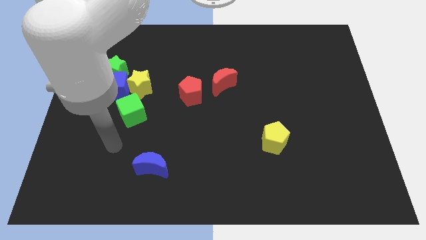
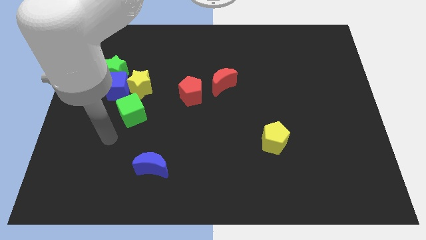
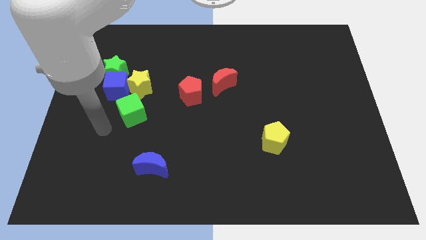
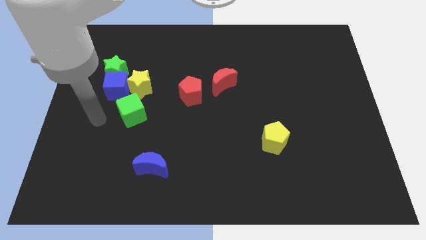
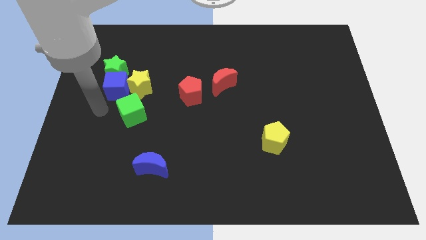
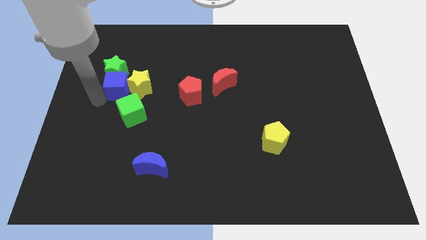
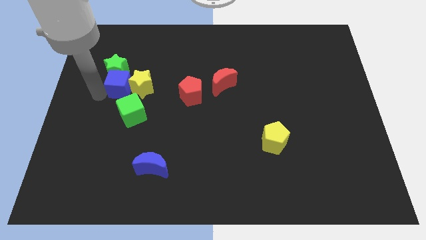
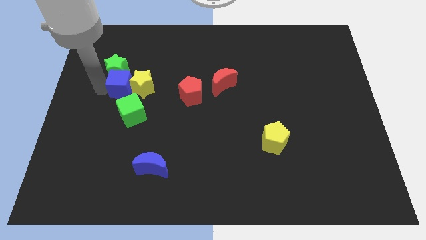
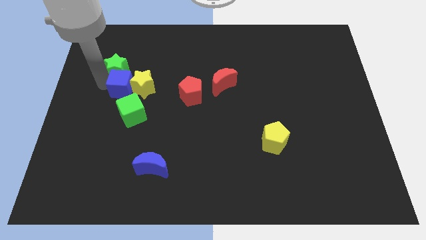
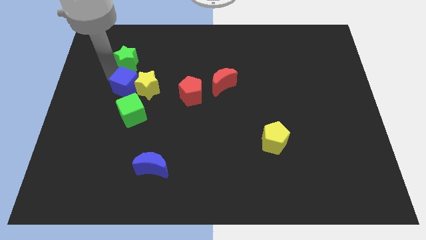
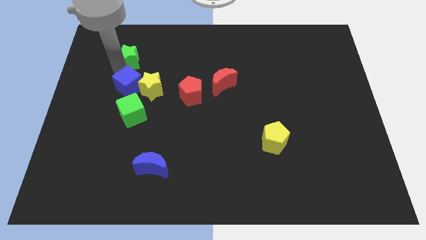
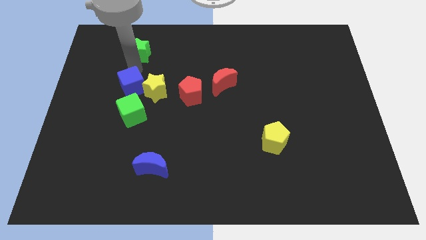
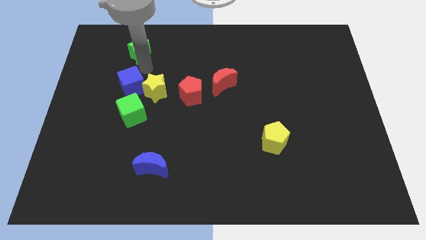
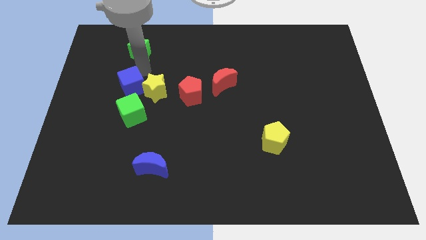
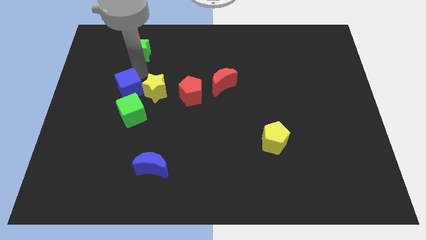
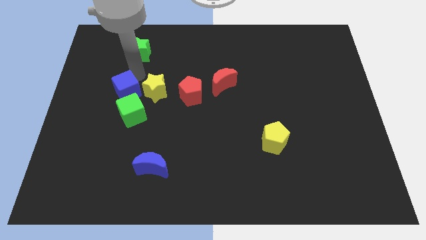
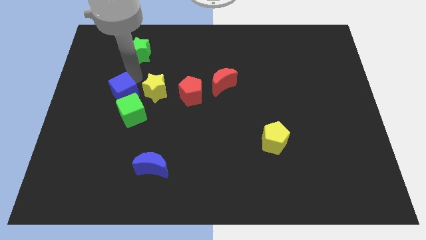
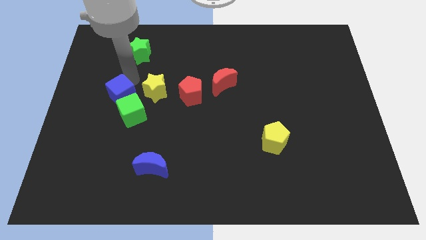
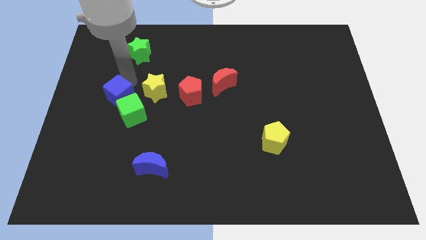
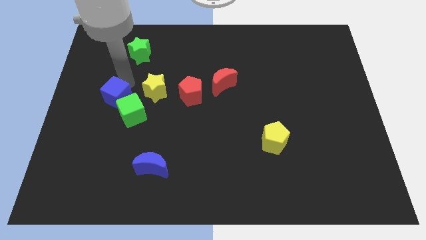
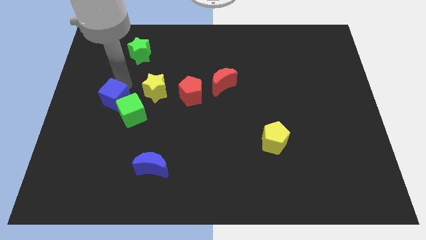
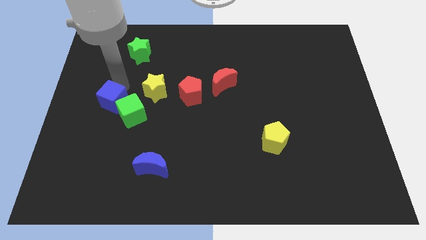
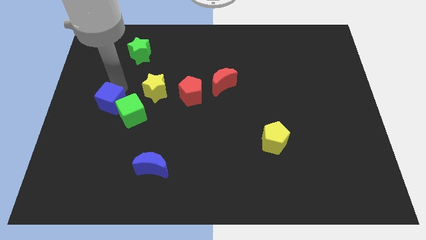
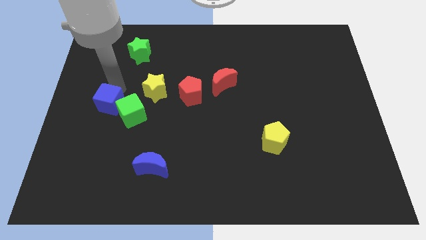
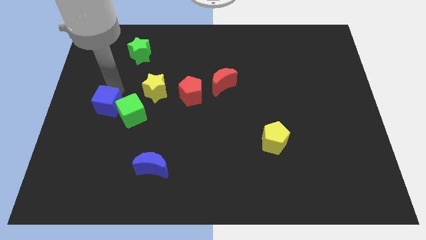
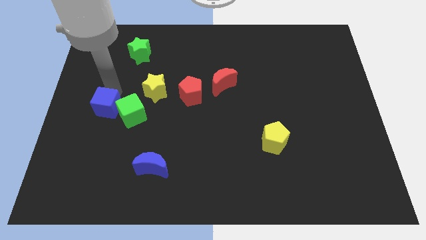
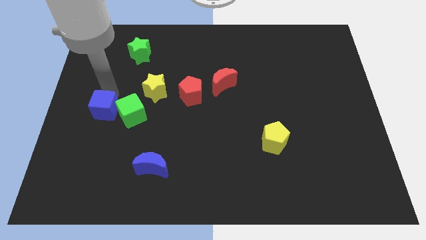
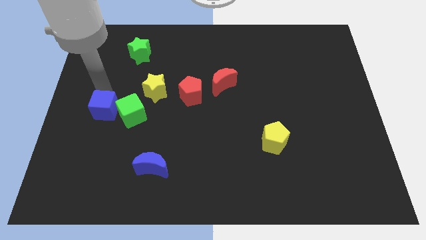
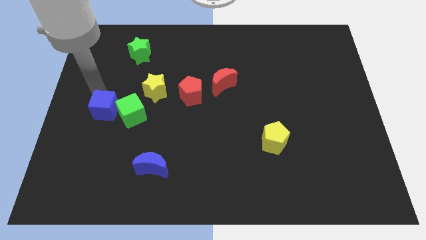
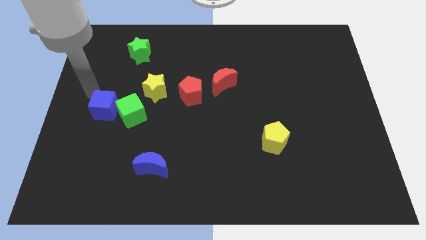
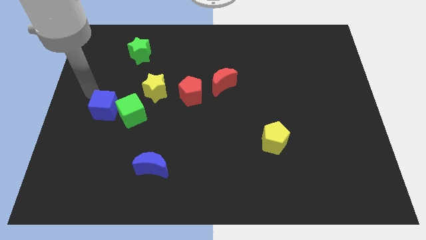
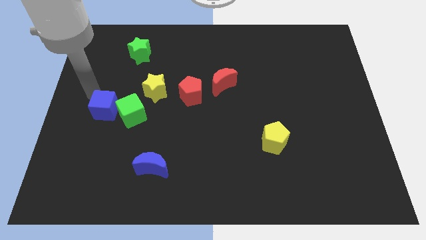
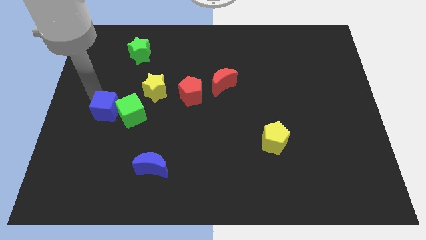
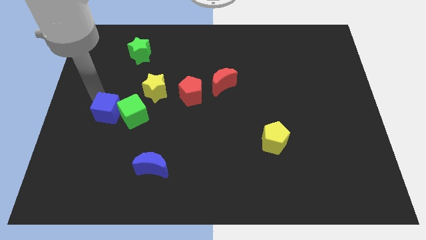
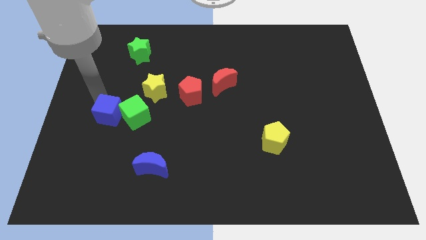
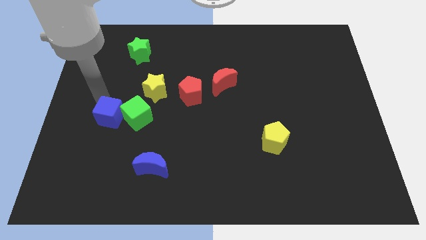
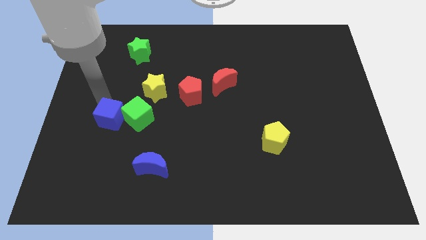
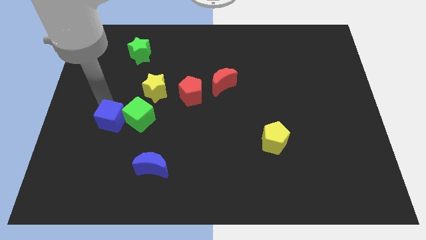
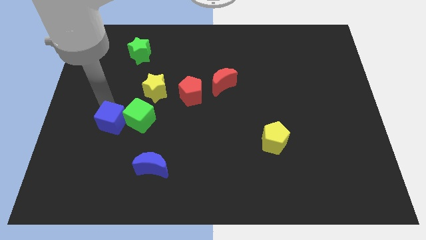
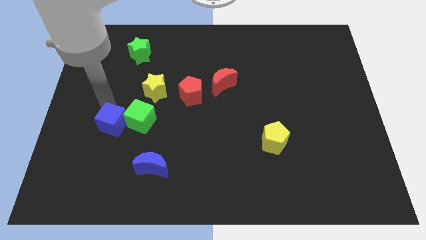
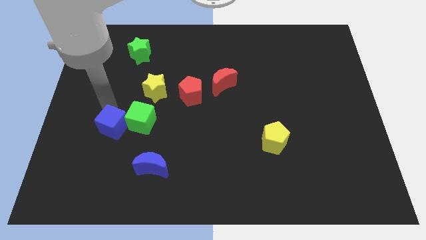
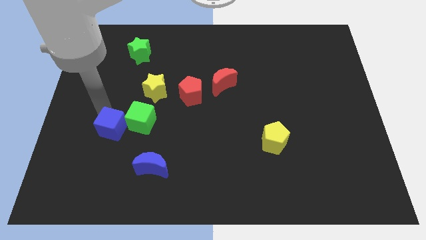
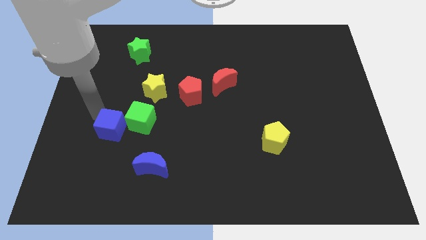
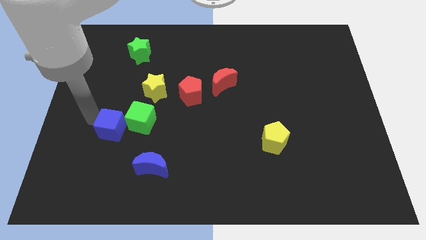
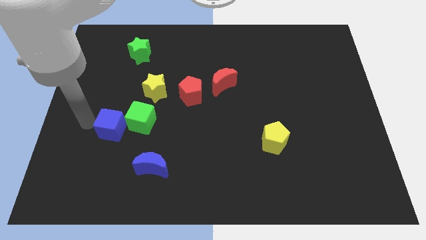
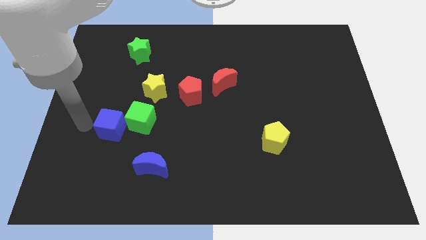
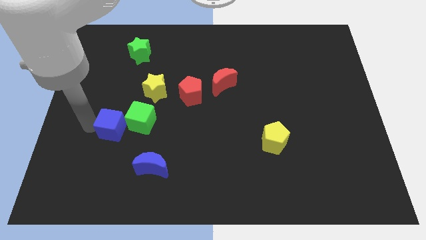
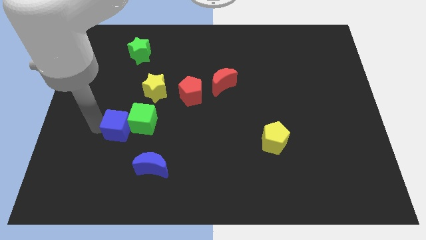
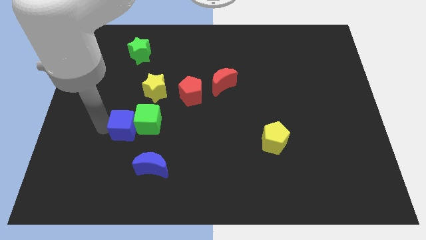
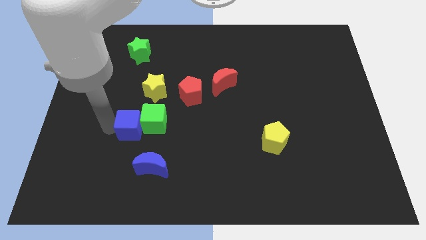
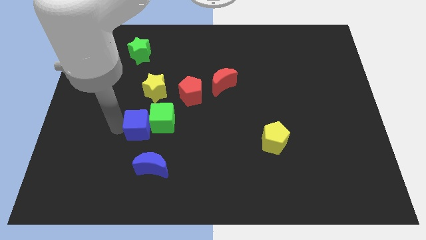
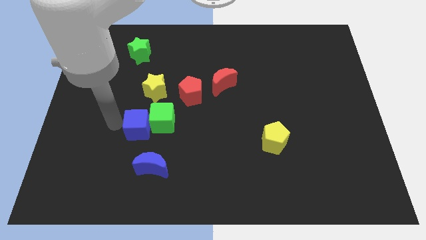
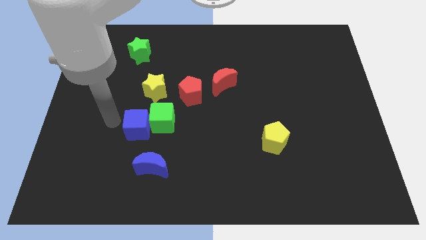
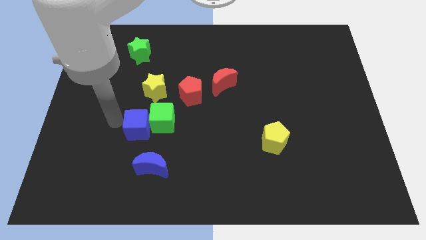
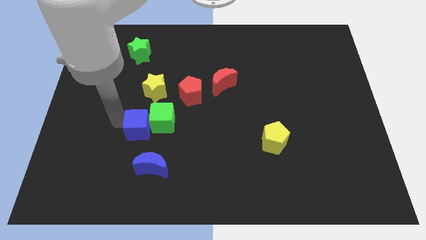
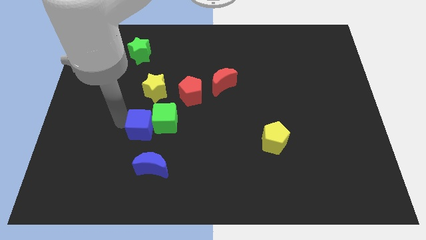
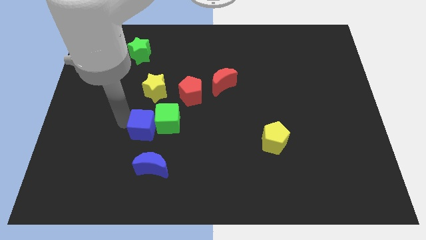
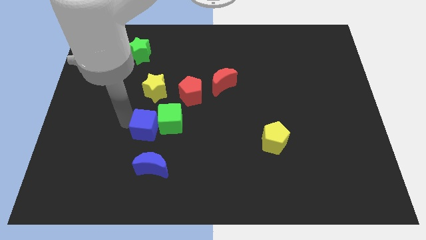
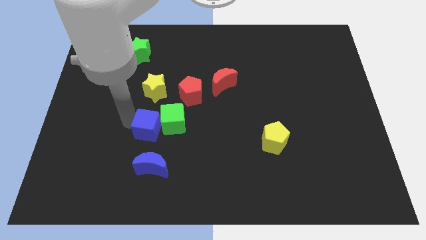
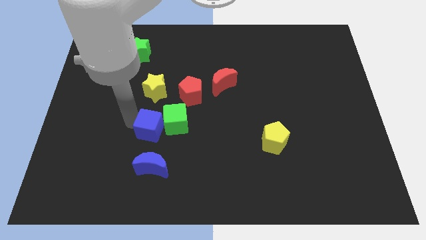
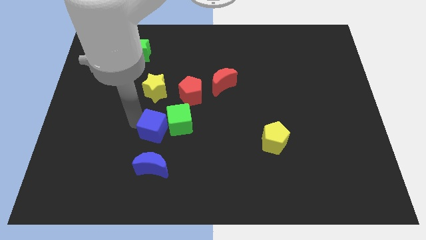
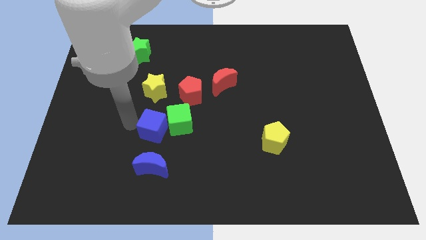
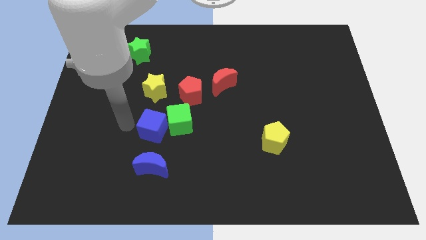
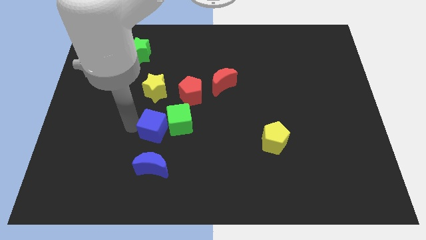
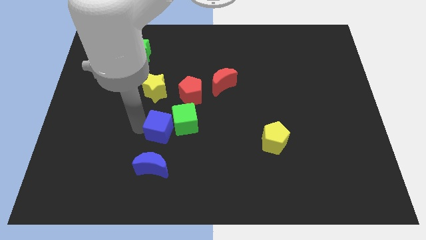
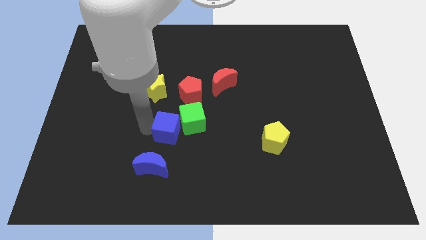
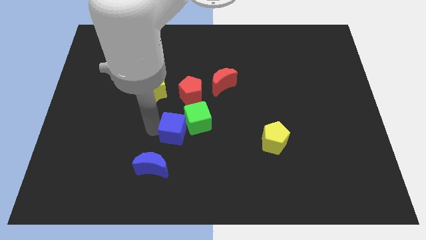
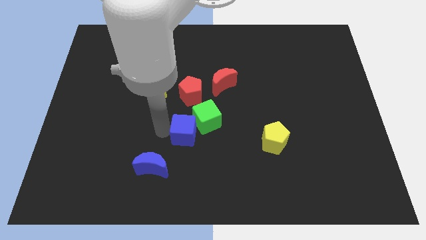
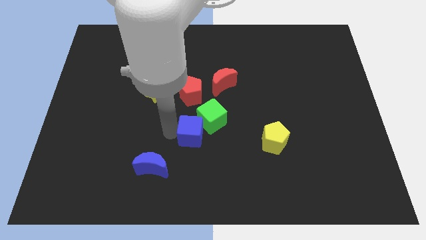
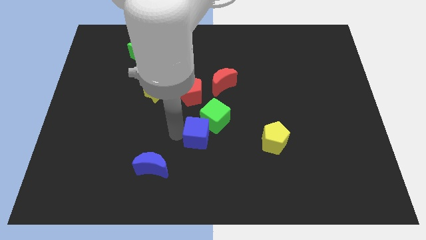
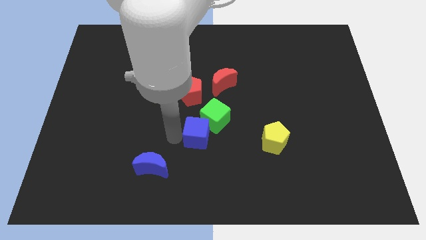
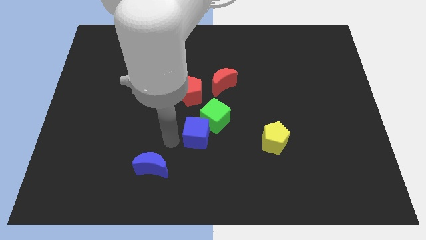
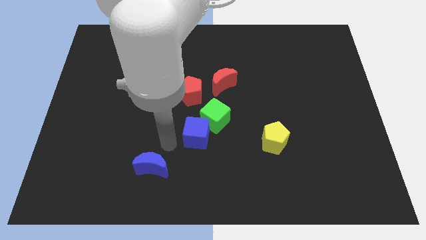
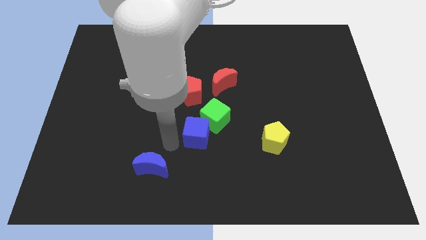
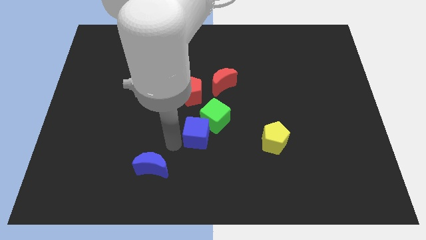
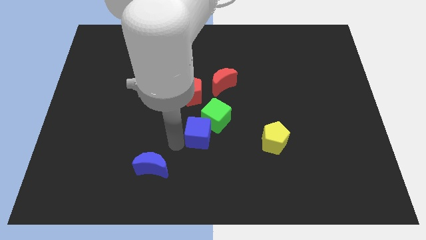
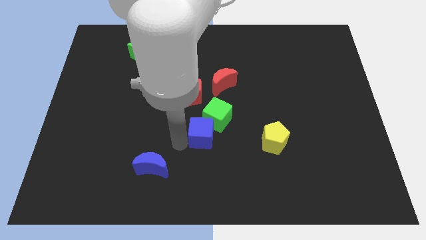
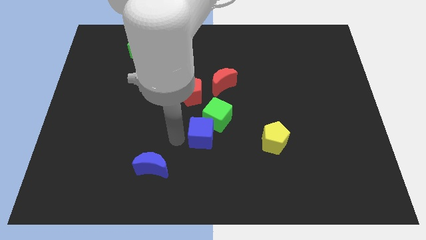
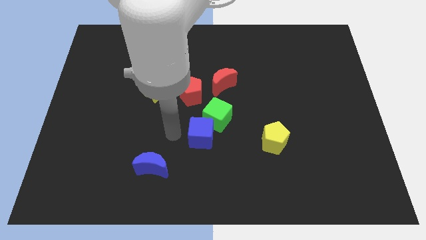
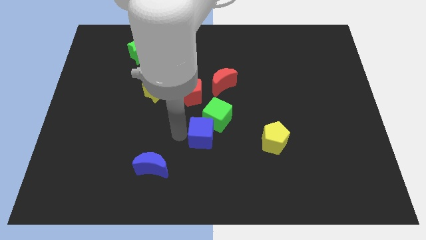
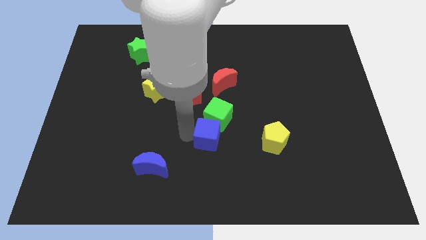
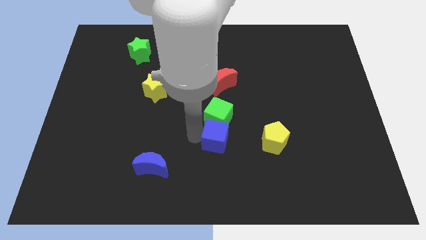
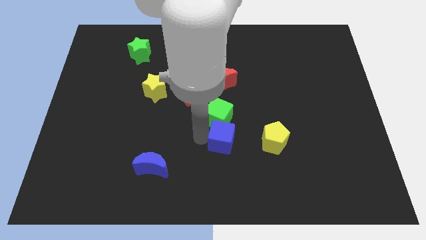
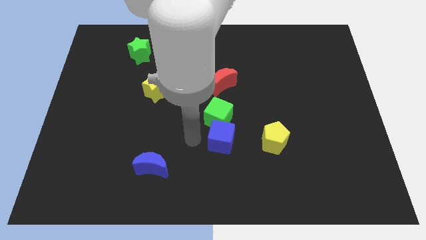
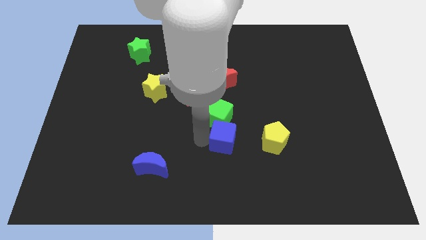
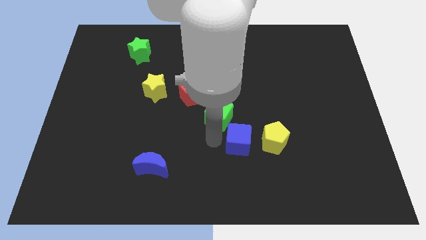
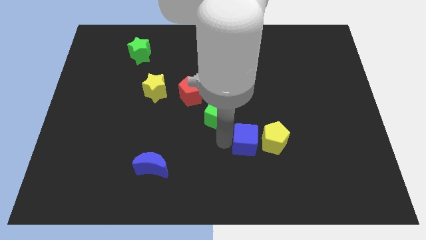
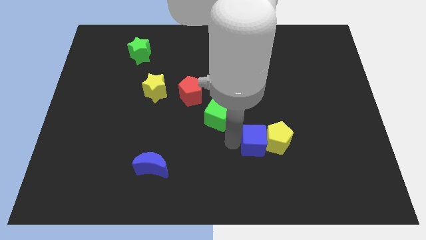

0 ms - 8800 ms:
move the blue cube towards the yellow pentagon
